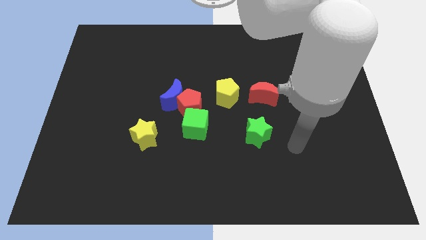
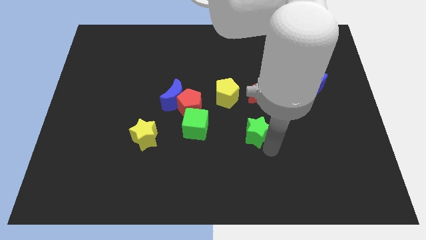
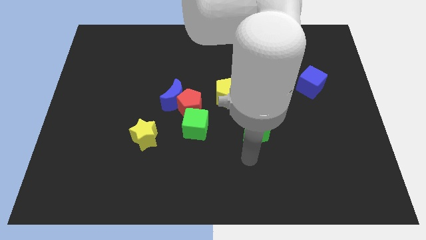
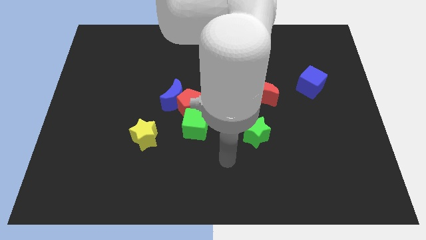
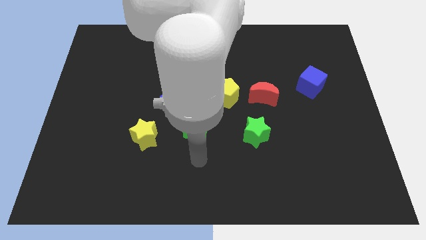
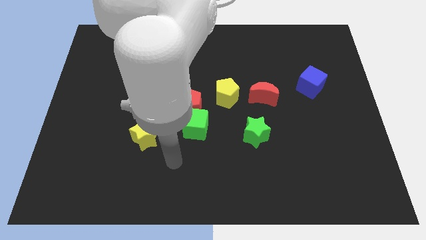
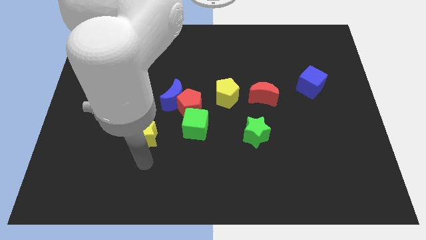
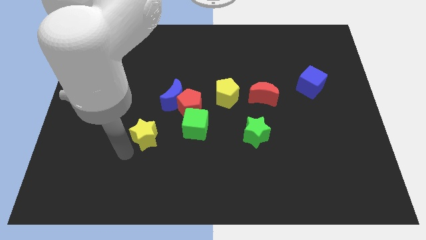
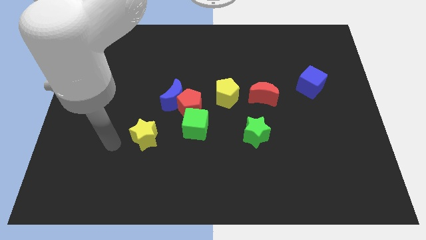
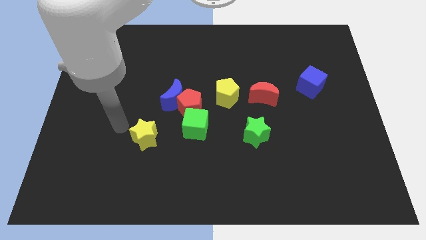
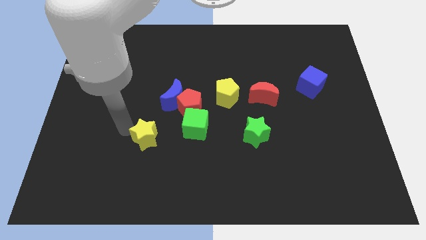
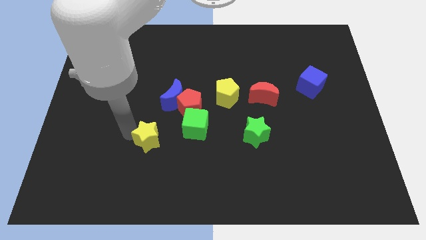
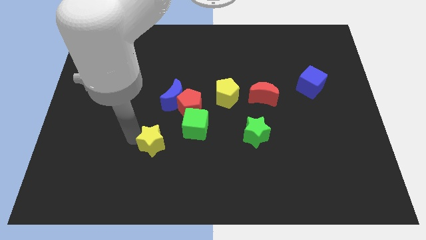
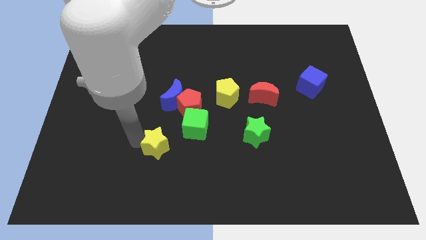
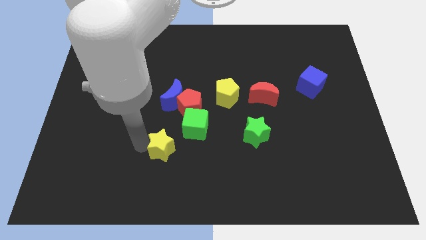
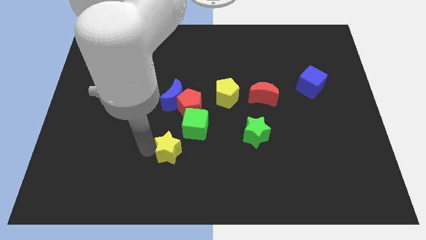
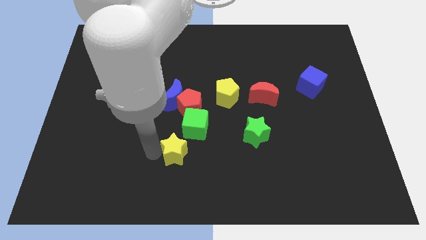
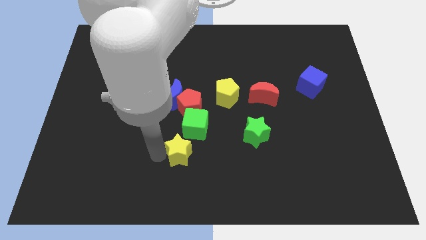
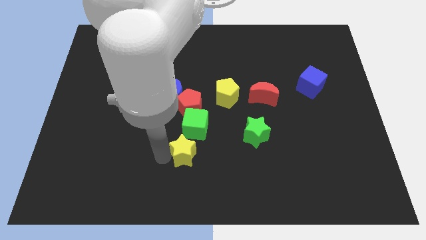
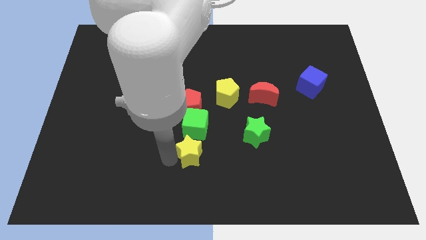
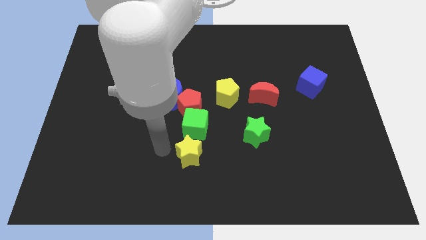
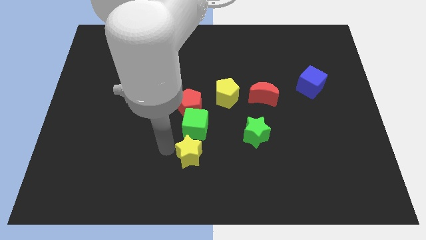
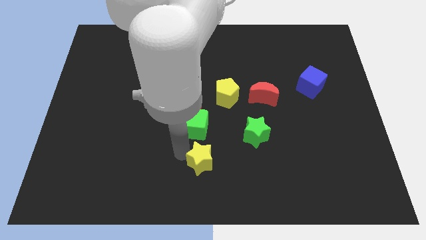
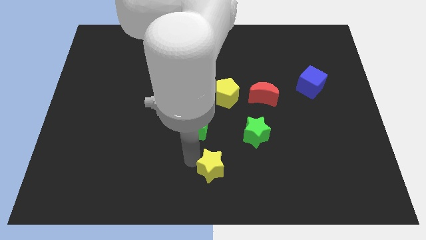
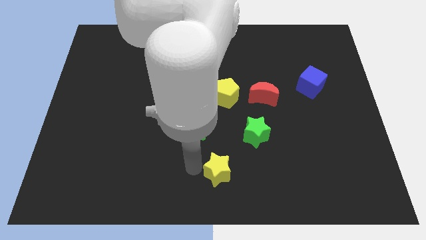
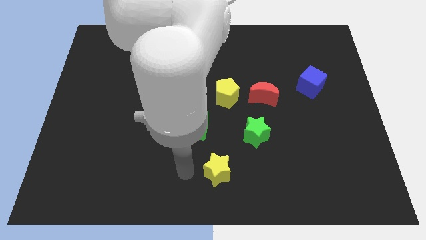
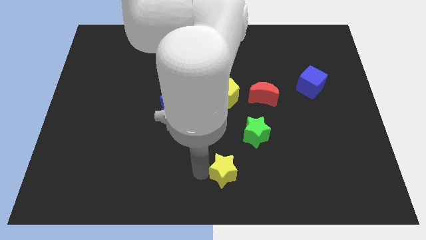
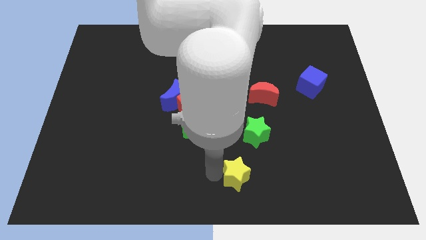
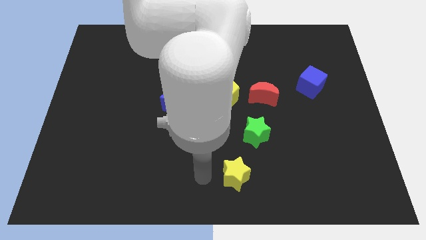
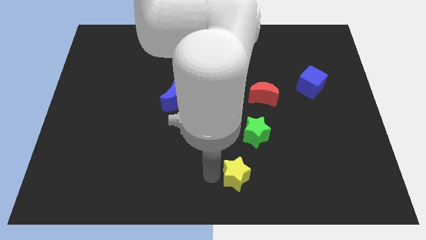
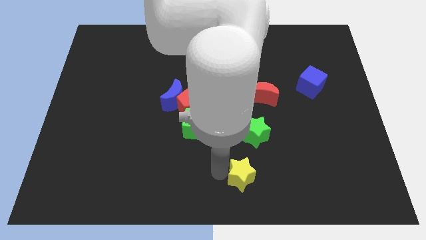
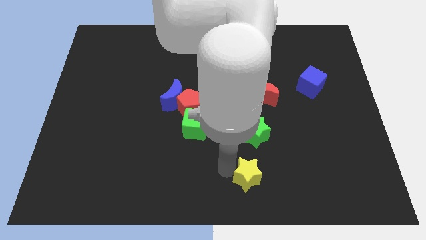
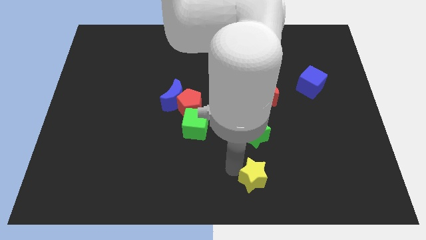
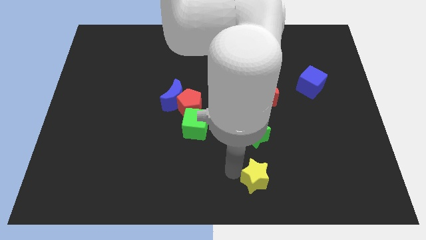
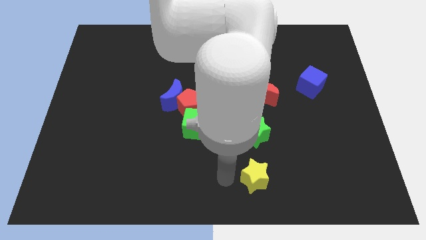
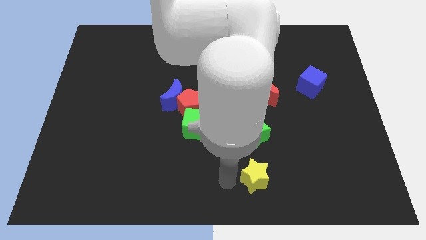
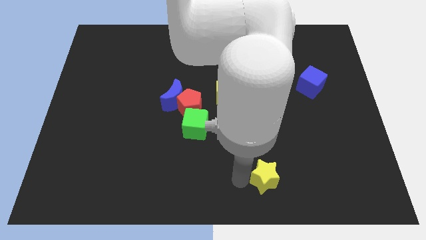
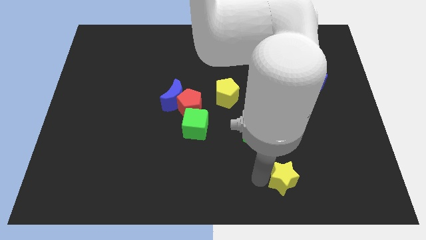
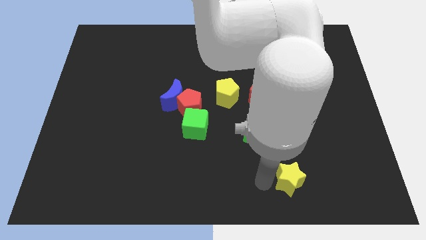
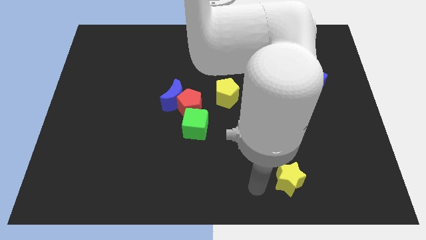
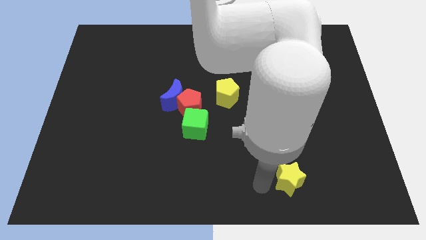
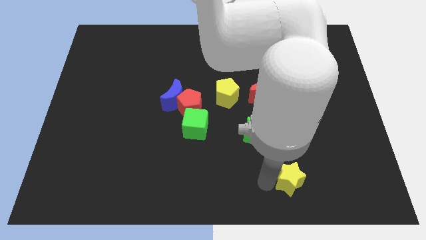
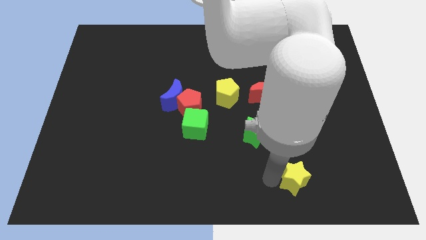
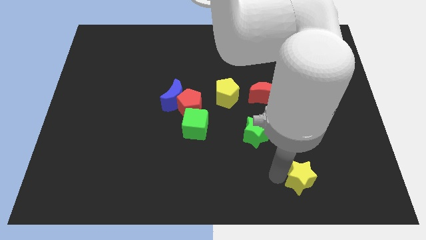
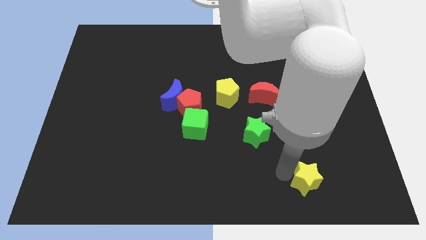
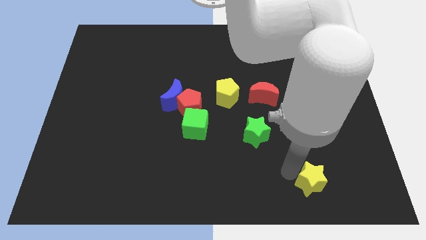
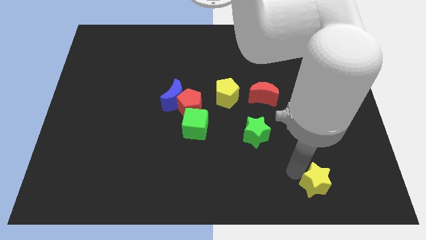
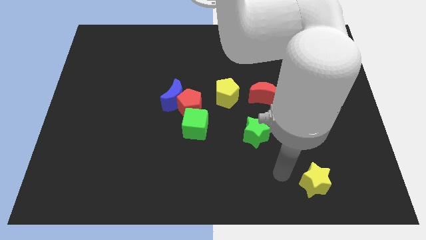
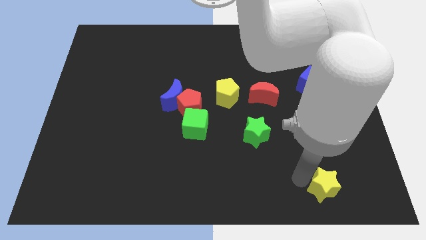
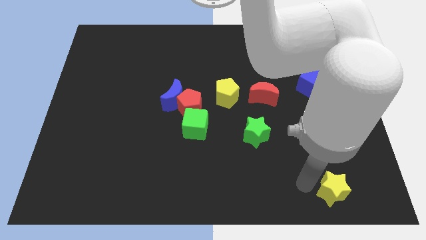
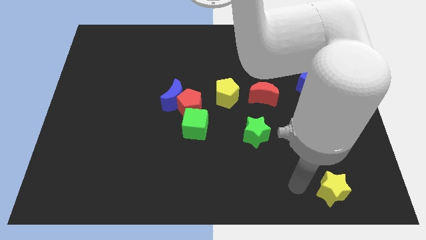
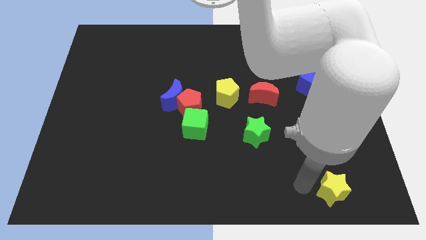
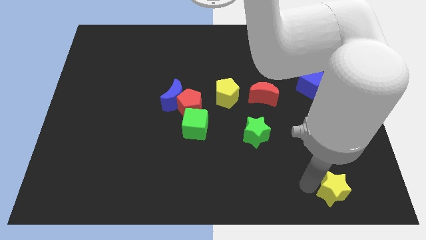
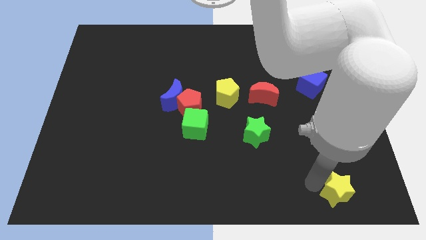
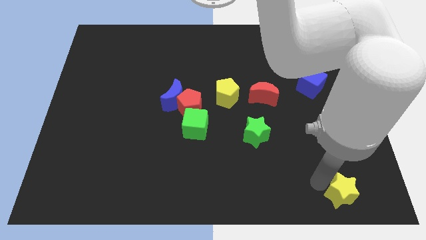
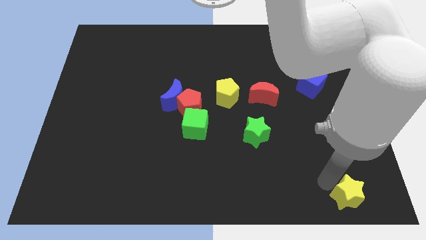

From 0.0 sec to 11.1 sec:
move the yellow star to the bottom right corner

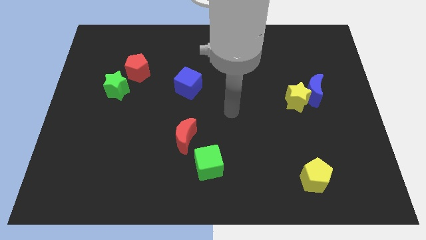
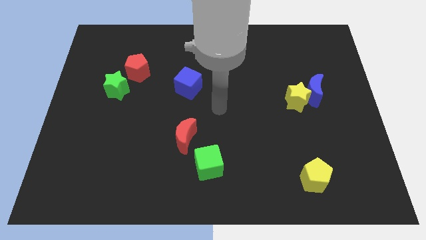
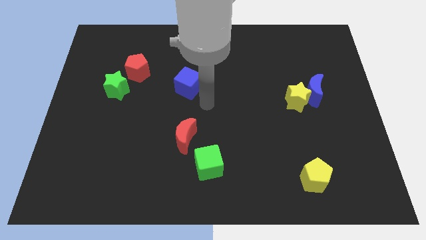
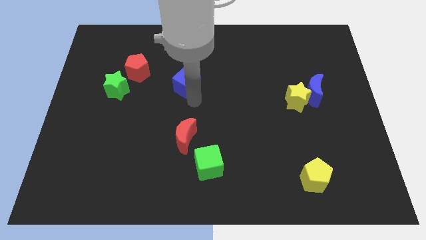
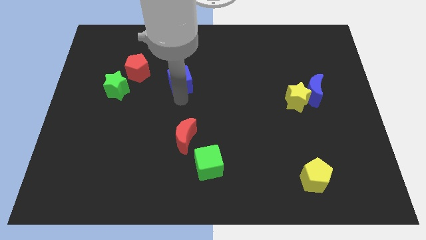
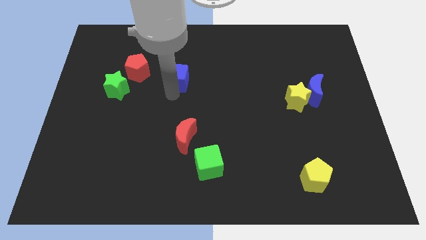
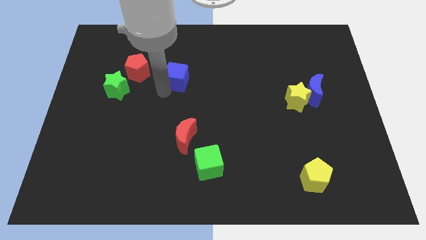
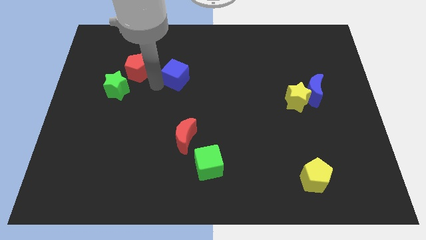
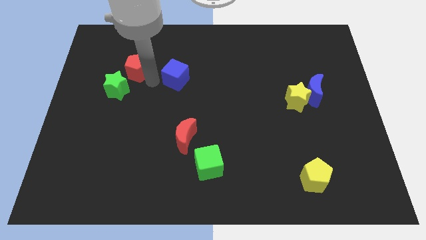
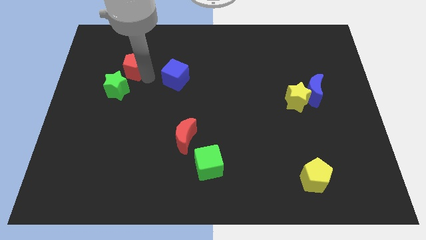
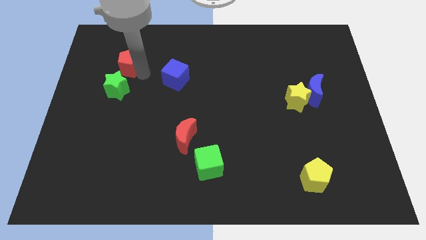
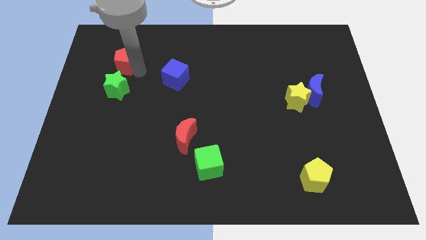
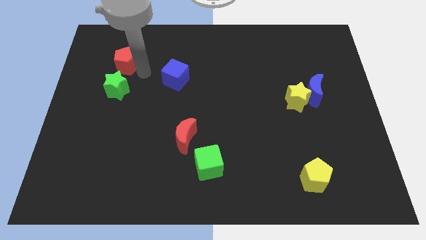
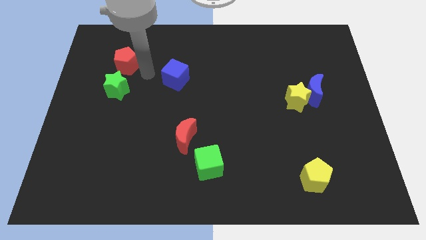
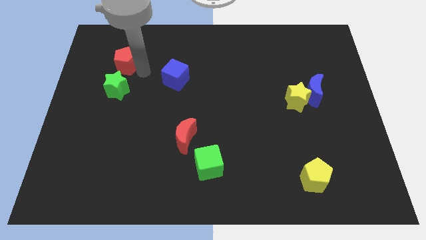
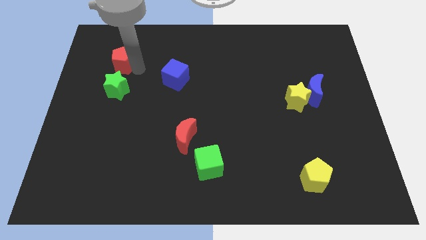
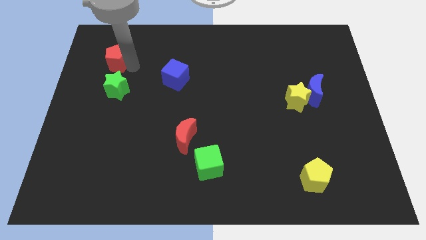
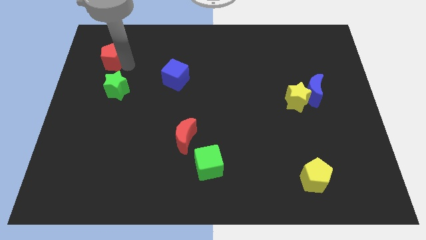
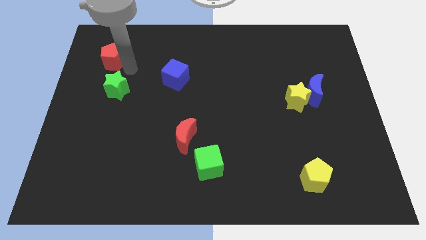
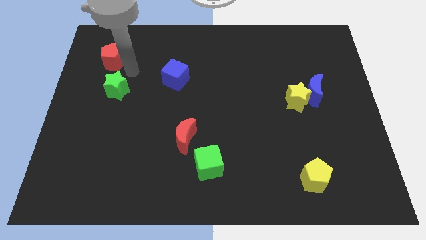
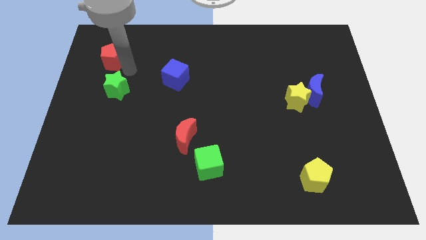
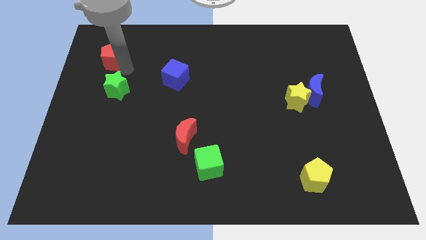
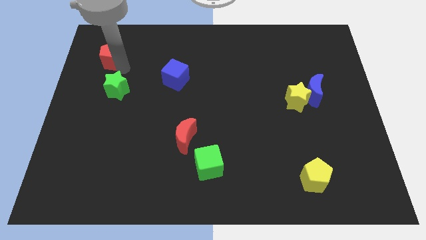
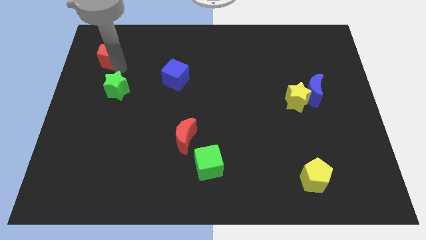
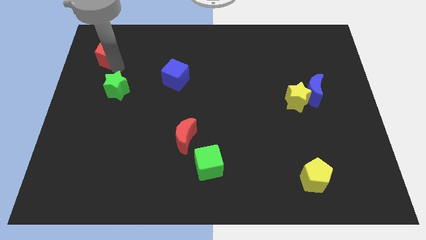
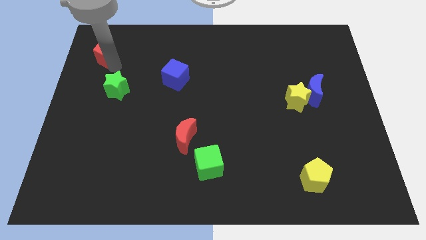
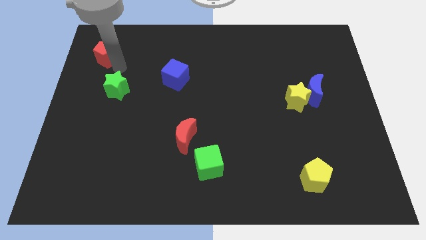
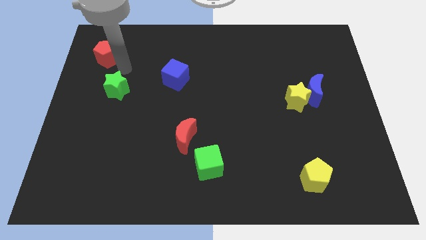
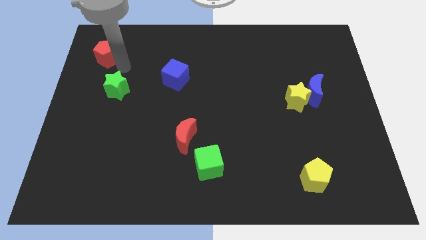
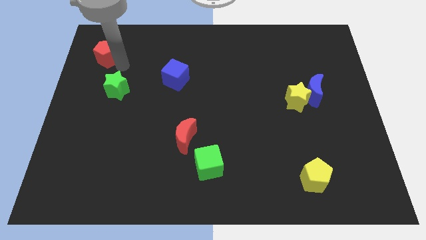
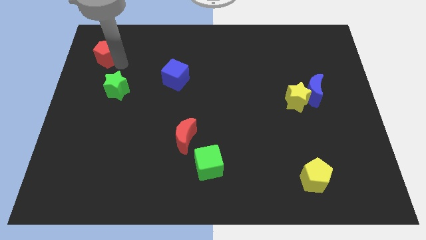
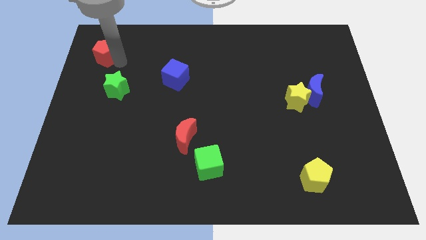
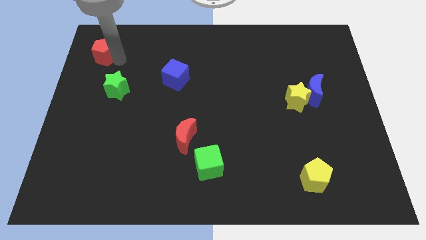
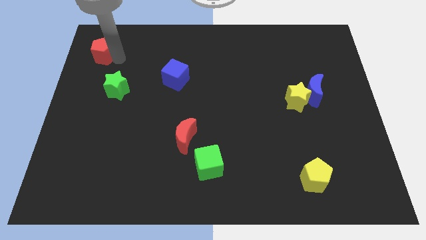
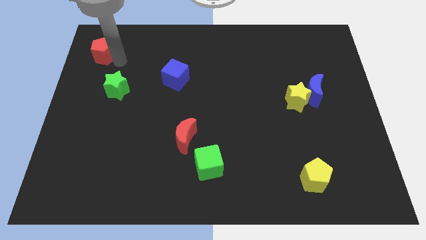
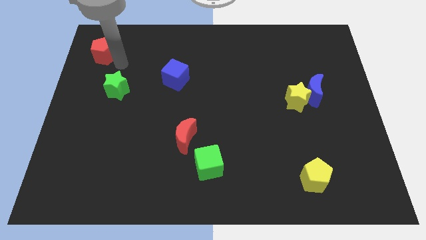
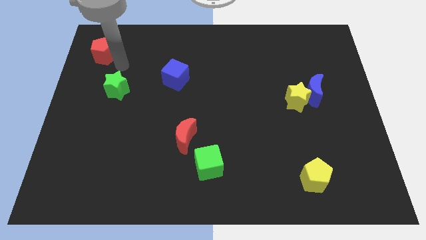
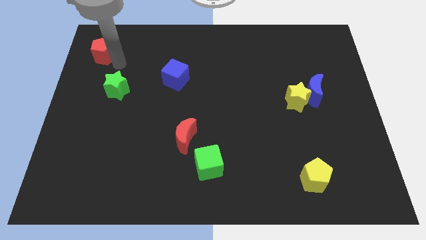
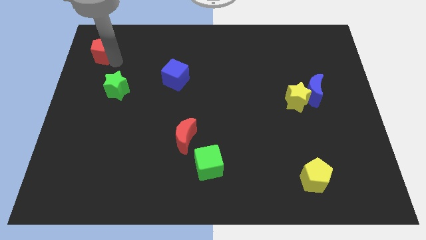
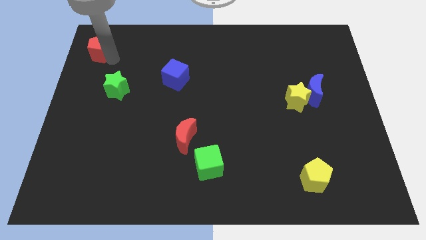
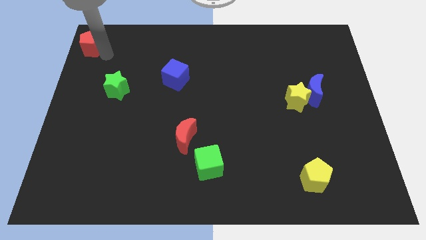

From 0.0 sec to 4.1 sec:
push the red pentagon to the top left of the board
